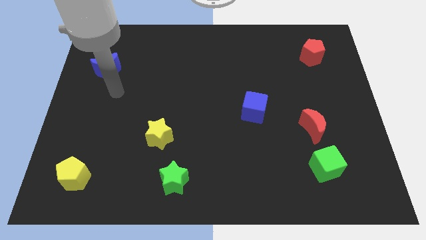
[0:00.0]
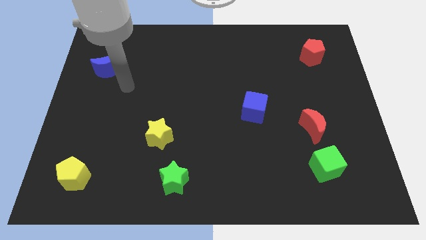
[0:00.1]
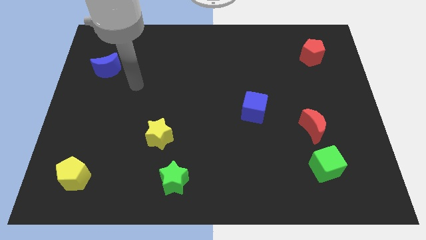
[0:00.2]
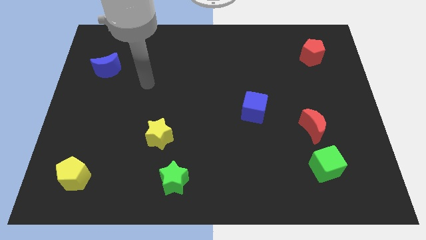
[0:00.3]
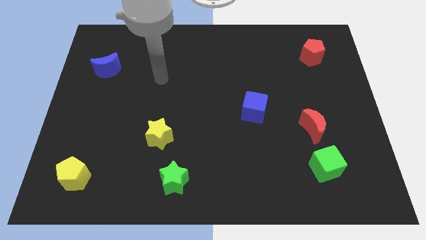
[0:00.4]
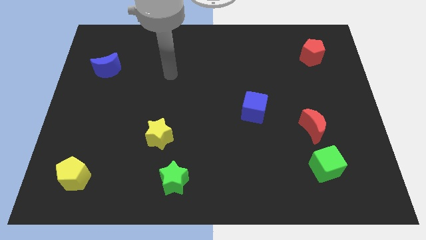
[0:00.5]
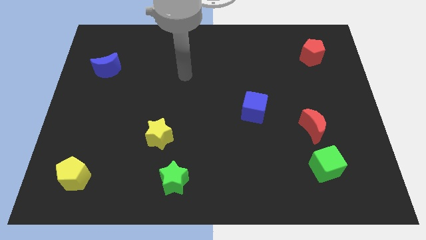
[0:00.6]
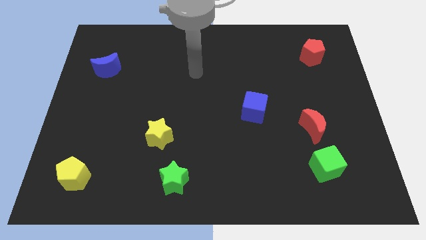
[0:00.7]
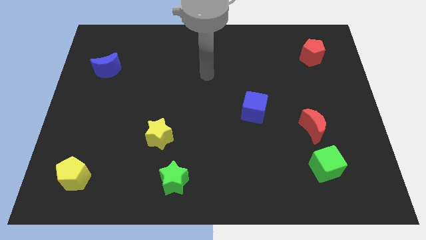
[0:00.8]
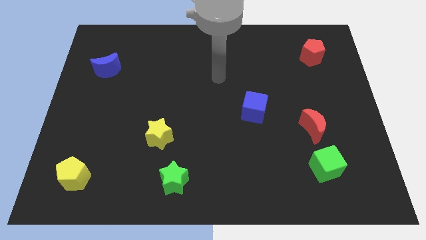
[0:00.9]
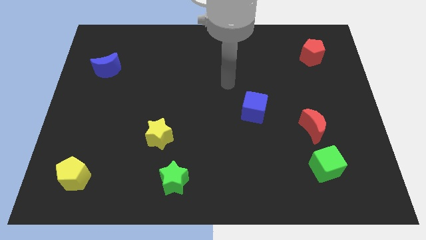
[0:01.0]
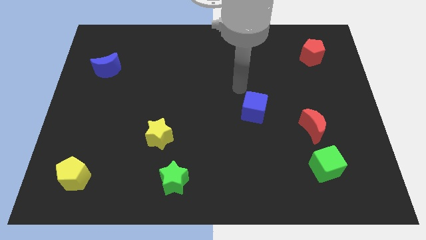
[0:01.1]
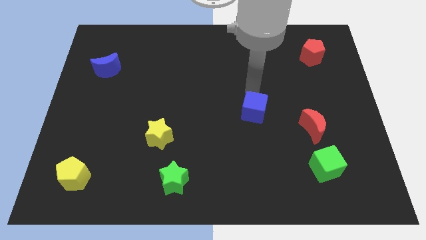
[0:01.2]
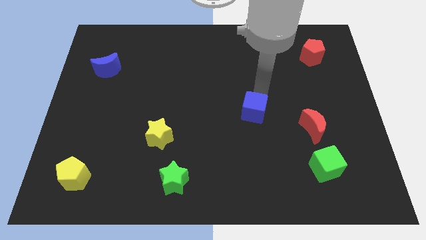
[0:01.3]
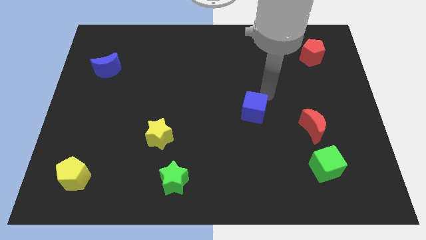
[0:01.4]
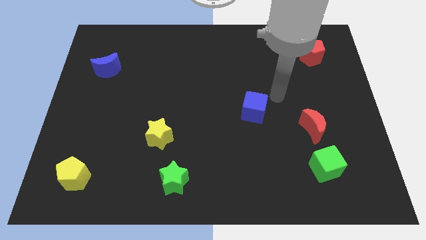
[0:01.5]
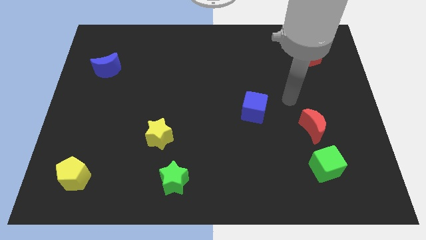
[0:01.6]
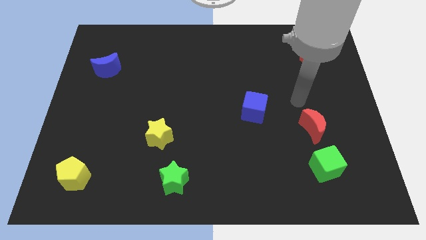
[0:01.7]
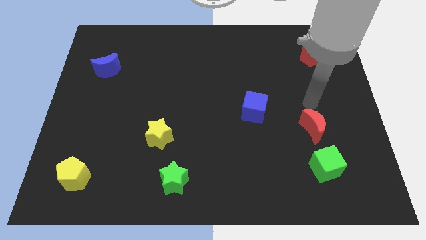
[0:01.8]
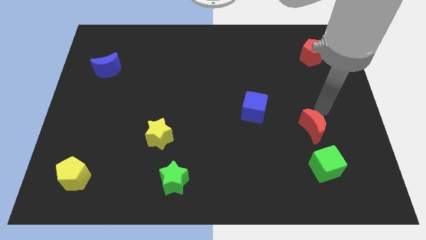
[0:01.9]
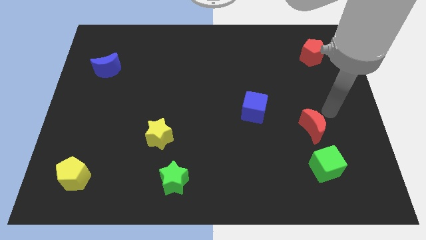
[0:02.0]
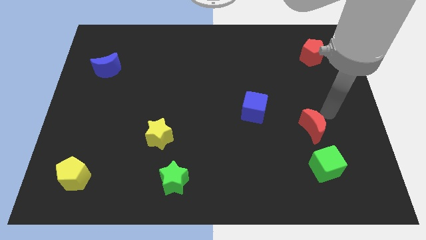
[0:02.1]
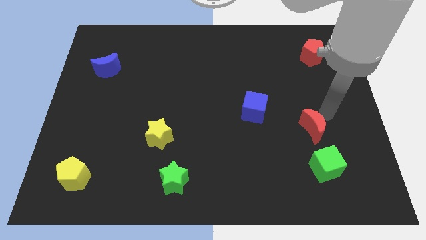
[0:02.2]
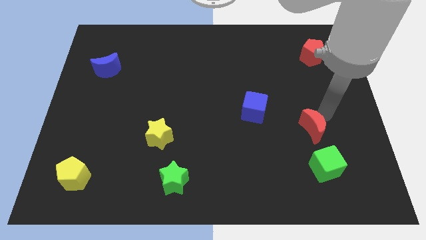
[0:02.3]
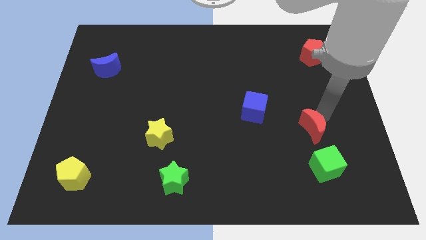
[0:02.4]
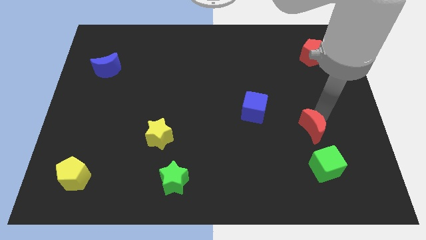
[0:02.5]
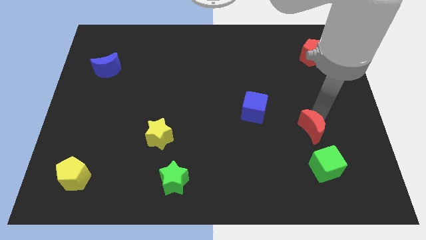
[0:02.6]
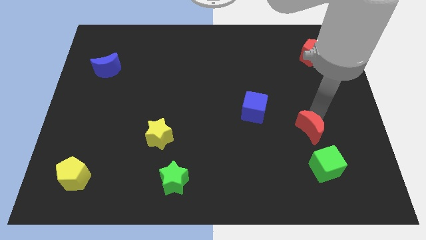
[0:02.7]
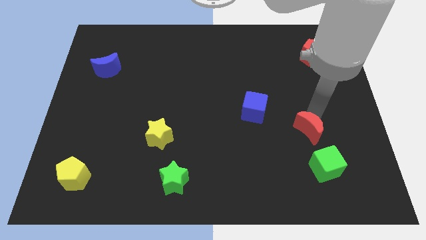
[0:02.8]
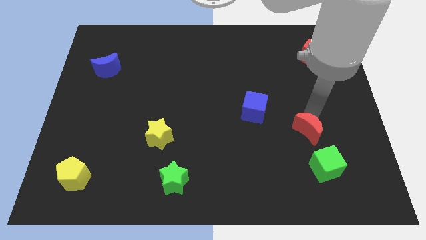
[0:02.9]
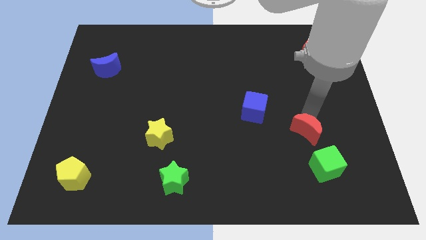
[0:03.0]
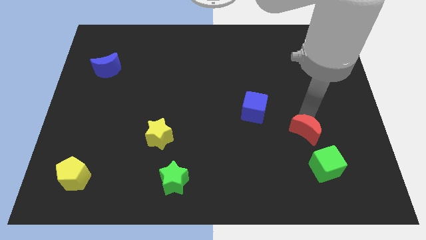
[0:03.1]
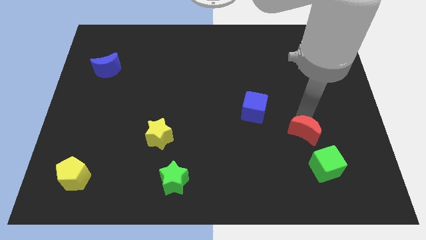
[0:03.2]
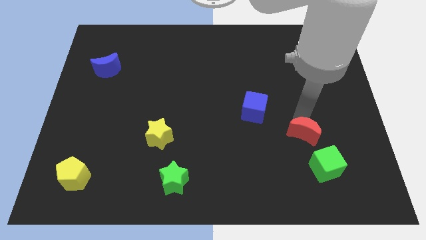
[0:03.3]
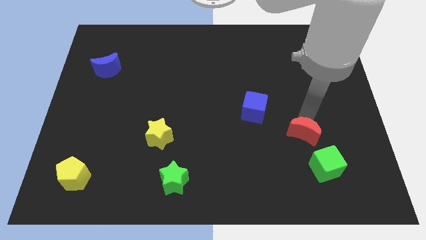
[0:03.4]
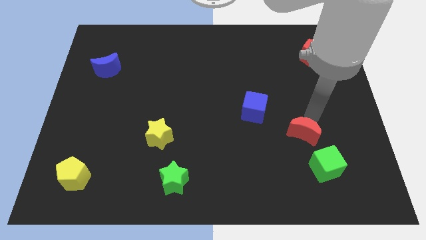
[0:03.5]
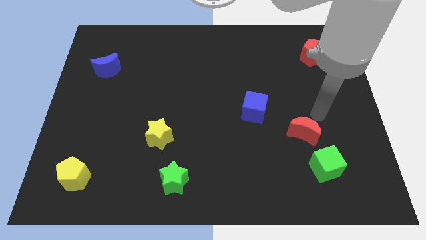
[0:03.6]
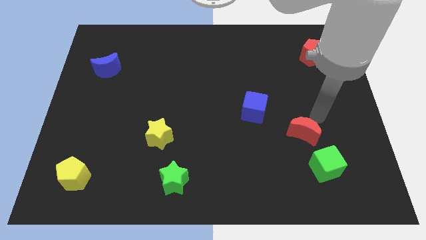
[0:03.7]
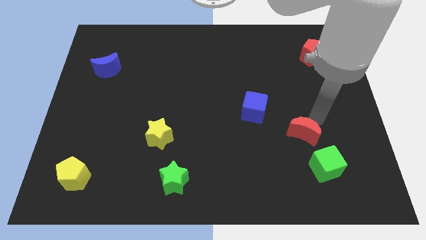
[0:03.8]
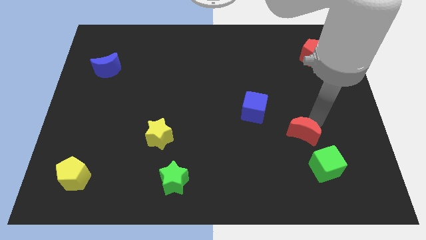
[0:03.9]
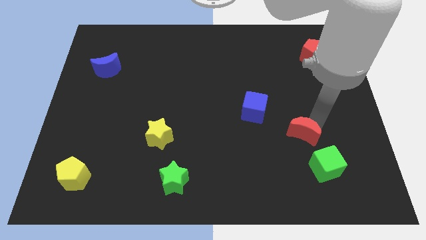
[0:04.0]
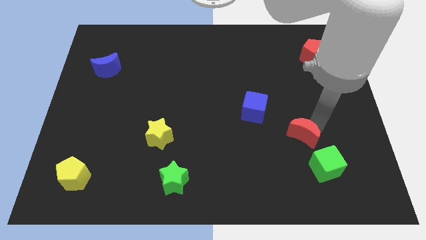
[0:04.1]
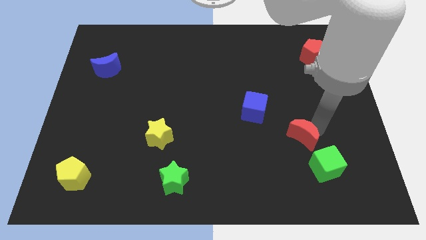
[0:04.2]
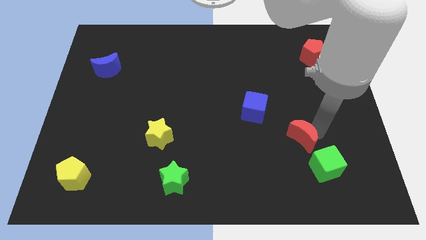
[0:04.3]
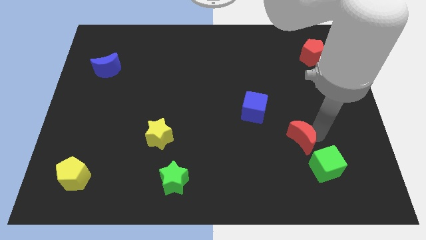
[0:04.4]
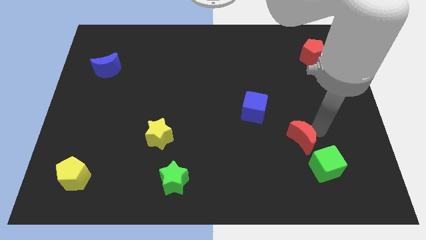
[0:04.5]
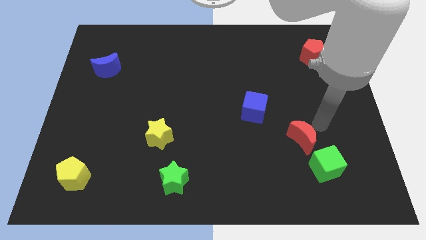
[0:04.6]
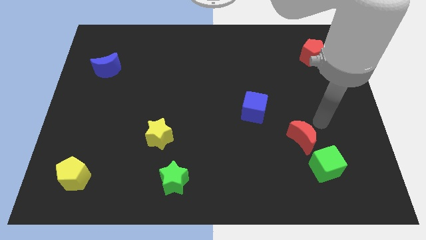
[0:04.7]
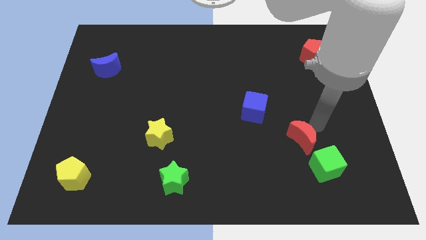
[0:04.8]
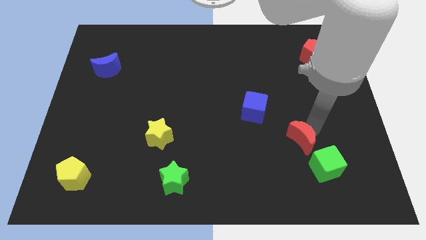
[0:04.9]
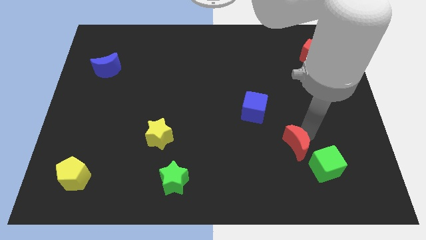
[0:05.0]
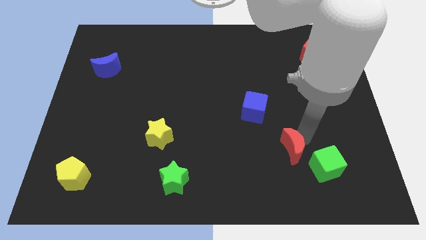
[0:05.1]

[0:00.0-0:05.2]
slightly move the red moon diagonally down and to the left

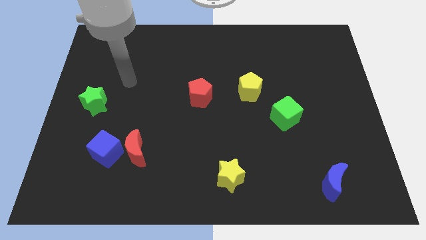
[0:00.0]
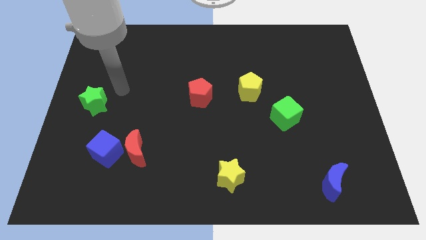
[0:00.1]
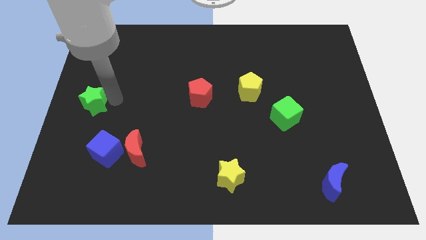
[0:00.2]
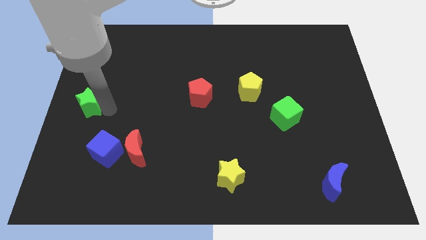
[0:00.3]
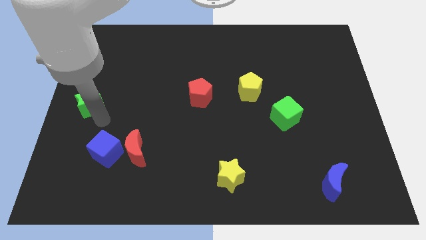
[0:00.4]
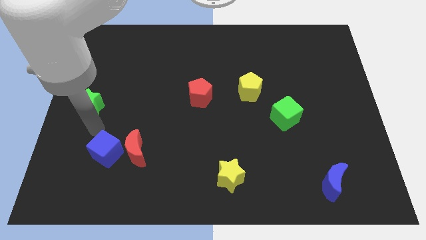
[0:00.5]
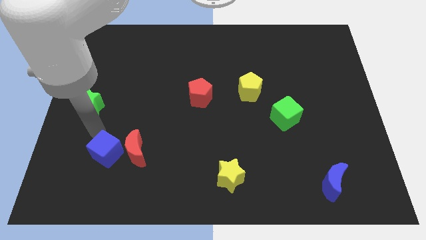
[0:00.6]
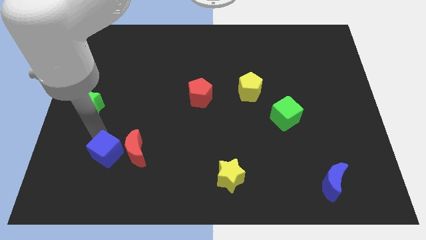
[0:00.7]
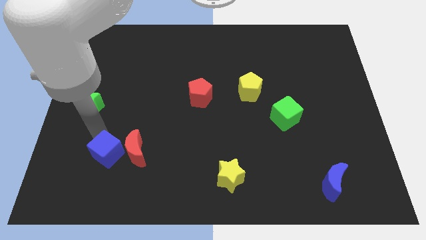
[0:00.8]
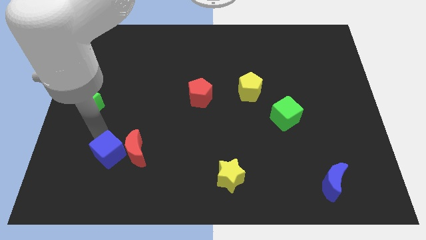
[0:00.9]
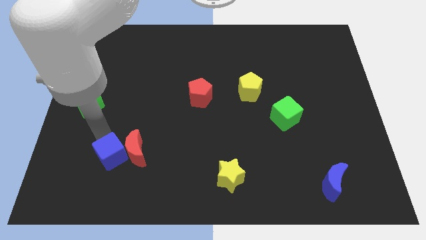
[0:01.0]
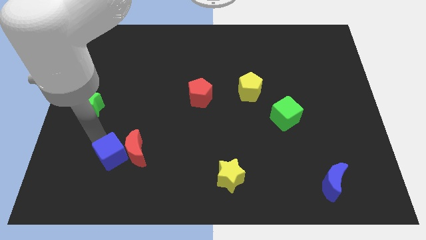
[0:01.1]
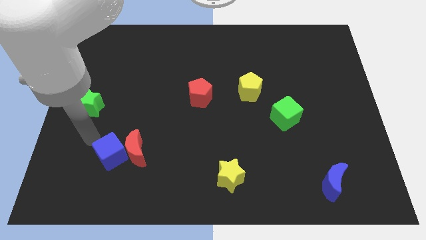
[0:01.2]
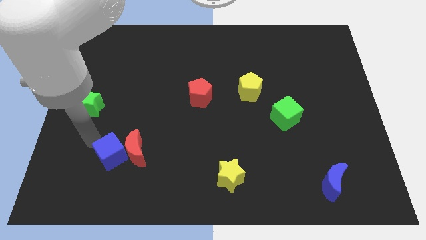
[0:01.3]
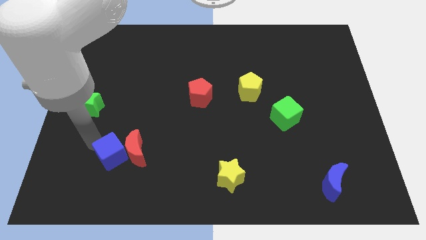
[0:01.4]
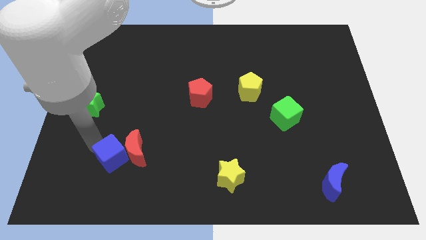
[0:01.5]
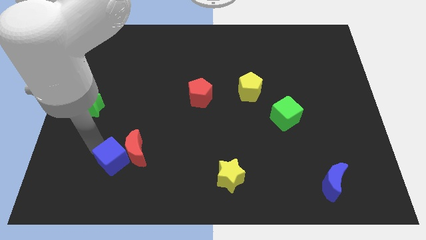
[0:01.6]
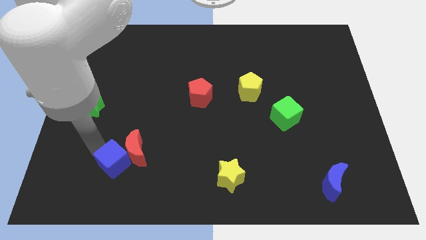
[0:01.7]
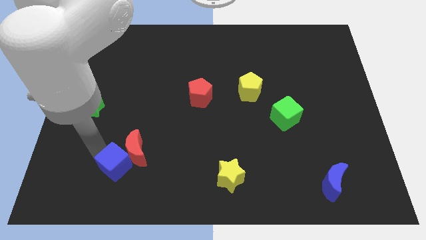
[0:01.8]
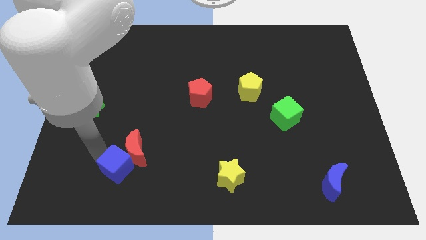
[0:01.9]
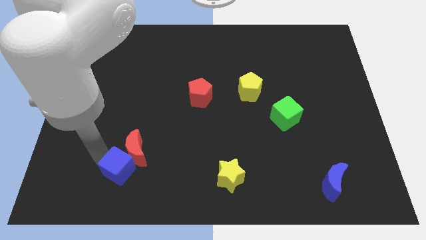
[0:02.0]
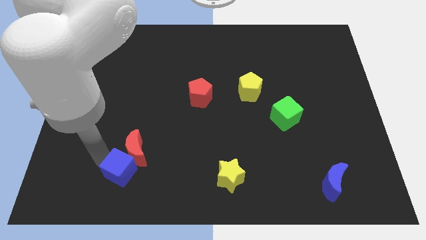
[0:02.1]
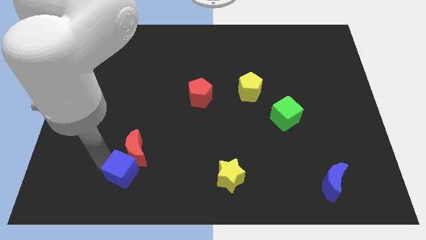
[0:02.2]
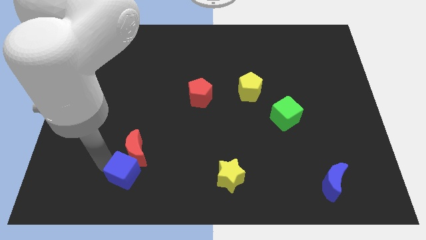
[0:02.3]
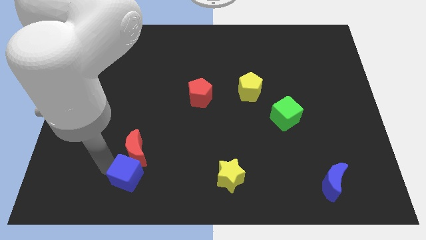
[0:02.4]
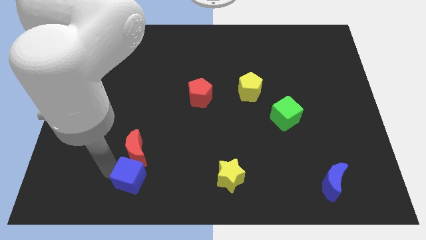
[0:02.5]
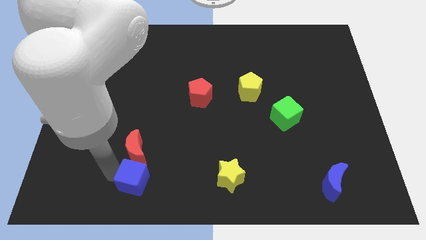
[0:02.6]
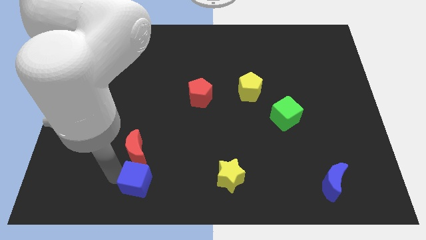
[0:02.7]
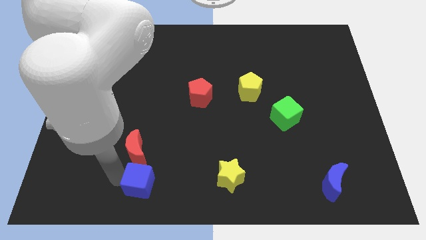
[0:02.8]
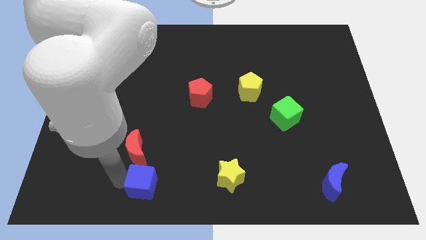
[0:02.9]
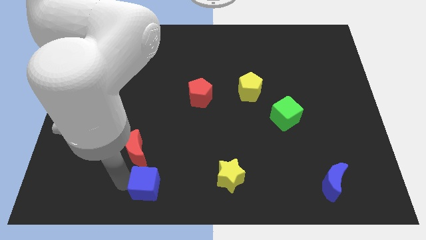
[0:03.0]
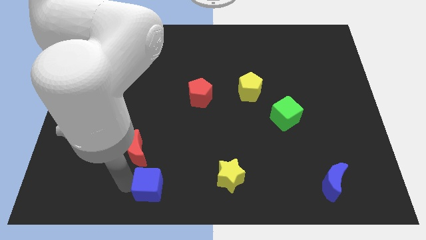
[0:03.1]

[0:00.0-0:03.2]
push the blue cube slightly to the right
